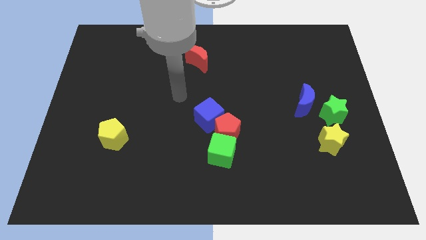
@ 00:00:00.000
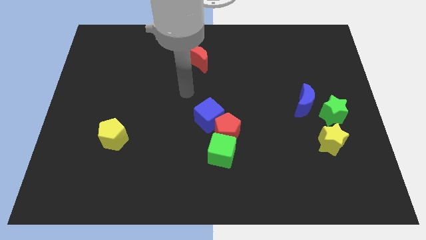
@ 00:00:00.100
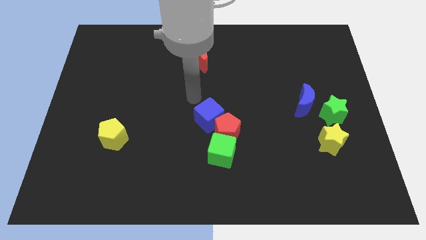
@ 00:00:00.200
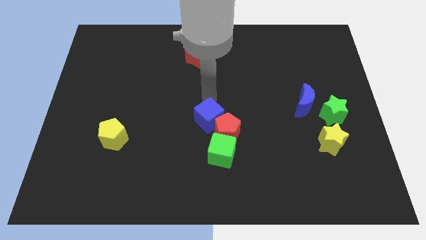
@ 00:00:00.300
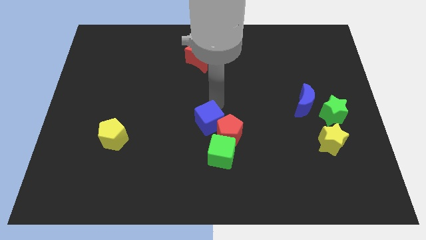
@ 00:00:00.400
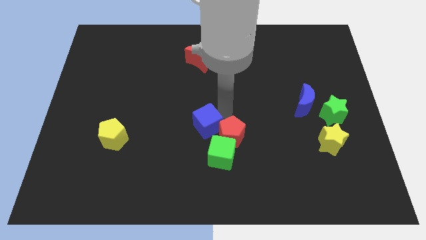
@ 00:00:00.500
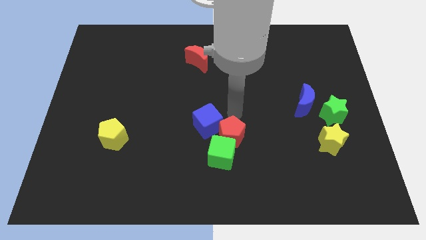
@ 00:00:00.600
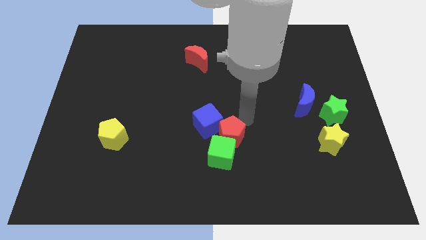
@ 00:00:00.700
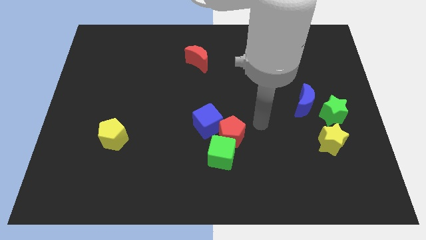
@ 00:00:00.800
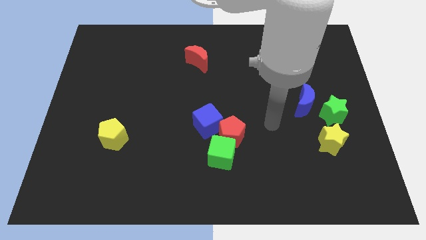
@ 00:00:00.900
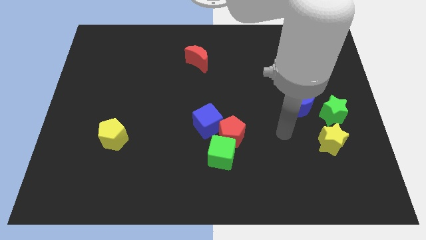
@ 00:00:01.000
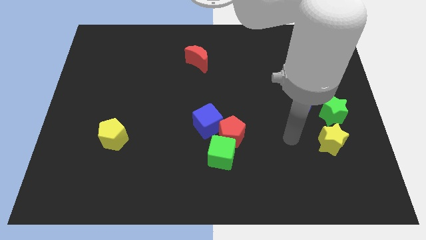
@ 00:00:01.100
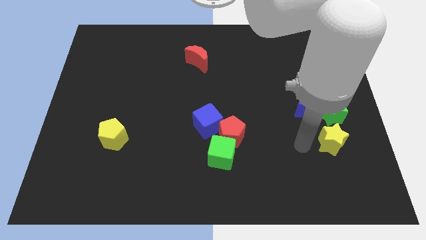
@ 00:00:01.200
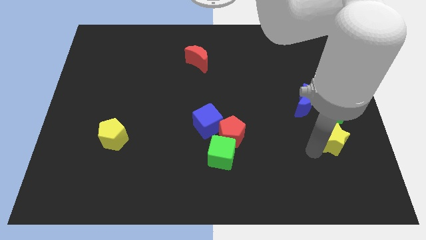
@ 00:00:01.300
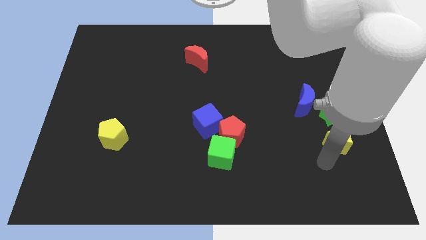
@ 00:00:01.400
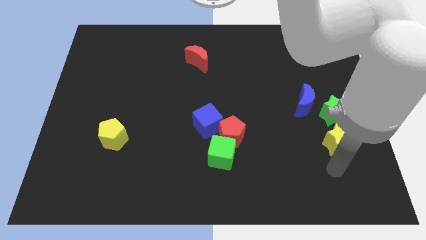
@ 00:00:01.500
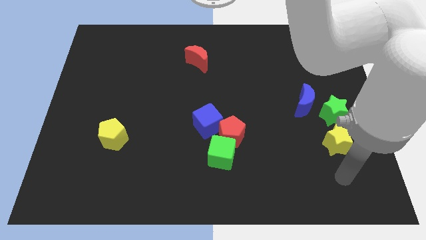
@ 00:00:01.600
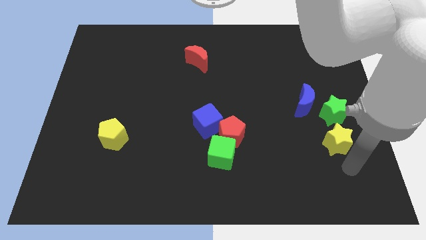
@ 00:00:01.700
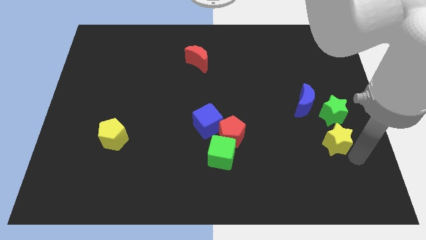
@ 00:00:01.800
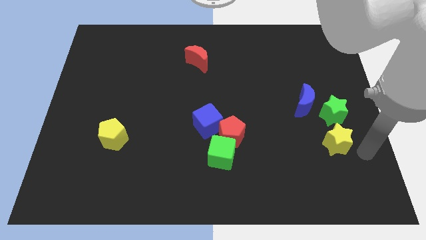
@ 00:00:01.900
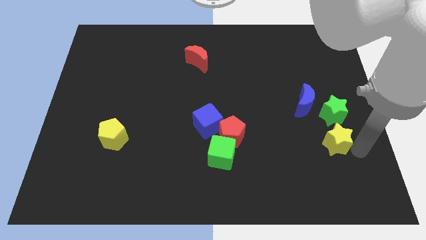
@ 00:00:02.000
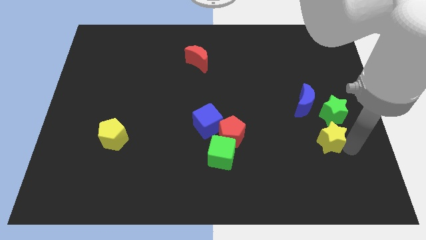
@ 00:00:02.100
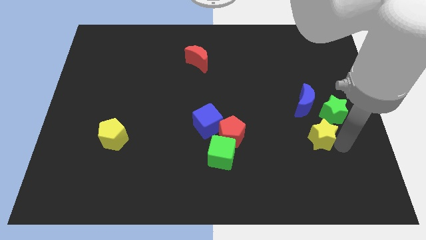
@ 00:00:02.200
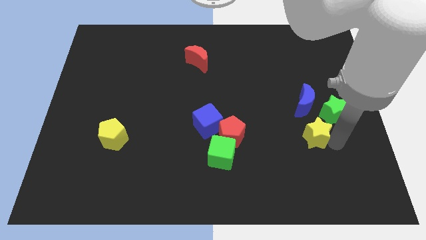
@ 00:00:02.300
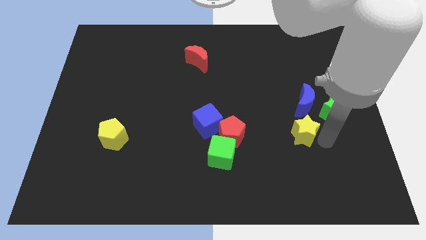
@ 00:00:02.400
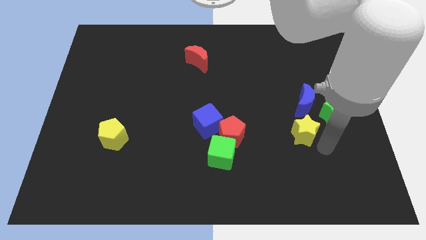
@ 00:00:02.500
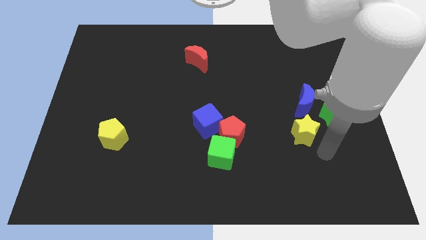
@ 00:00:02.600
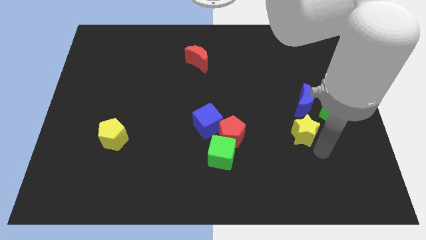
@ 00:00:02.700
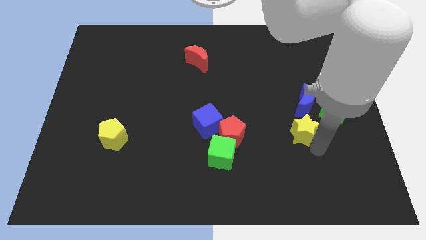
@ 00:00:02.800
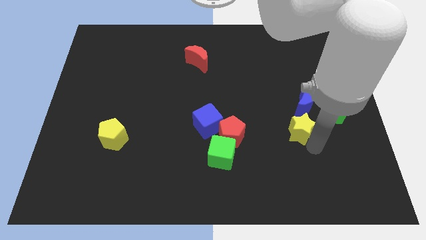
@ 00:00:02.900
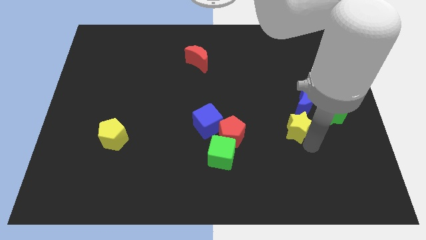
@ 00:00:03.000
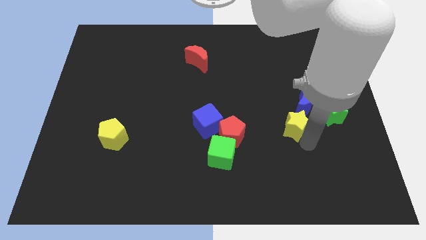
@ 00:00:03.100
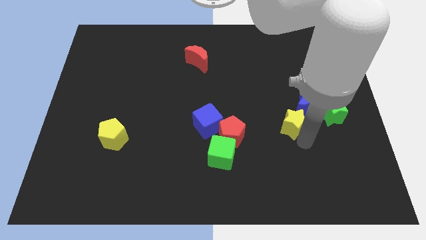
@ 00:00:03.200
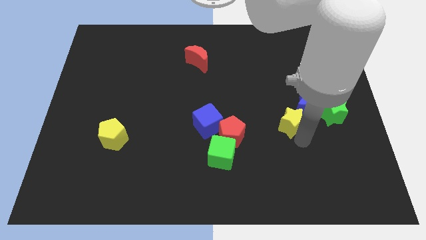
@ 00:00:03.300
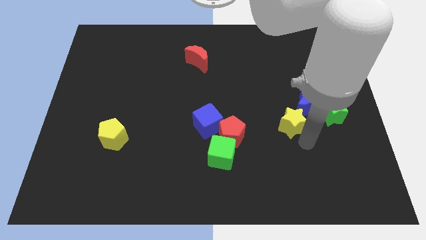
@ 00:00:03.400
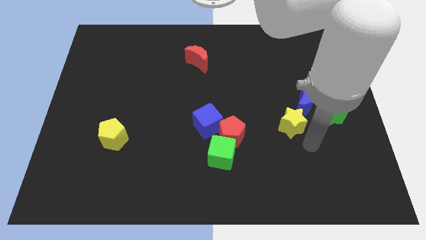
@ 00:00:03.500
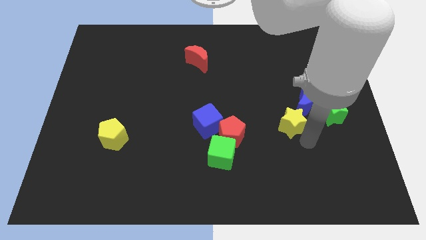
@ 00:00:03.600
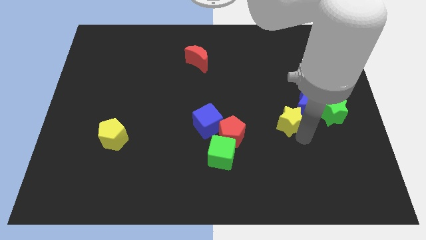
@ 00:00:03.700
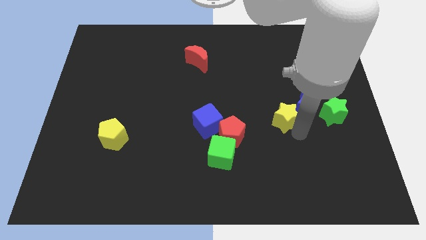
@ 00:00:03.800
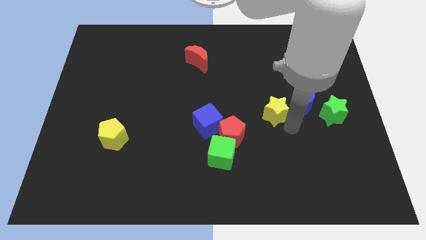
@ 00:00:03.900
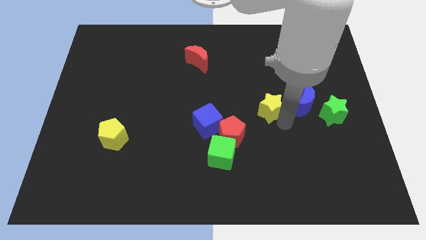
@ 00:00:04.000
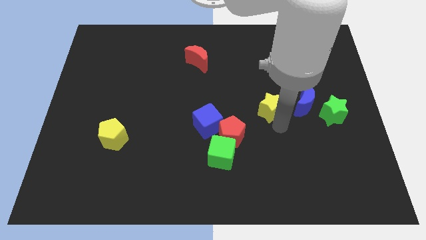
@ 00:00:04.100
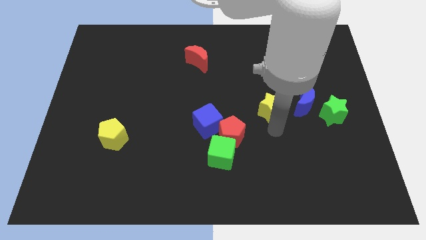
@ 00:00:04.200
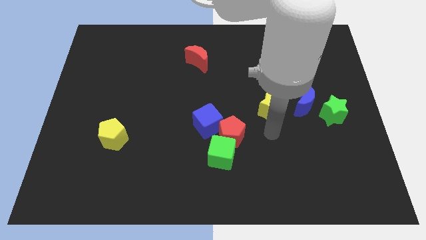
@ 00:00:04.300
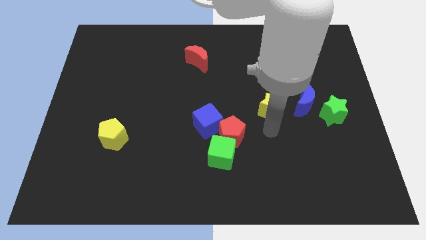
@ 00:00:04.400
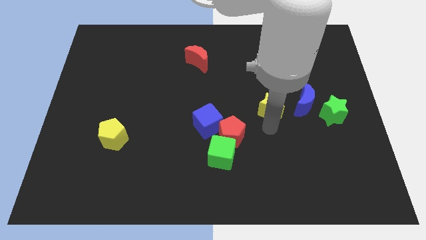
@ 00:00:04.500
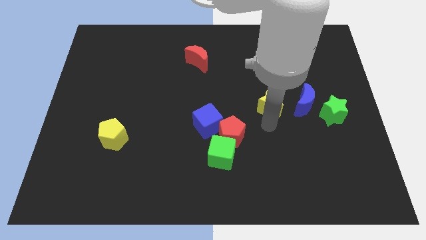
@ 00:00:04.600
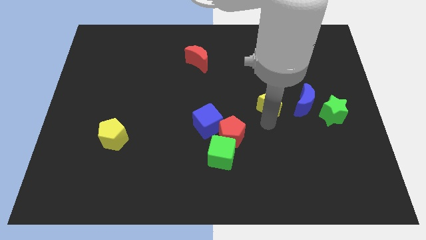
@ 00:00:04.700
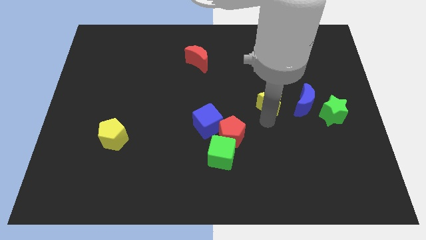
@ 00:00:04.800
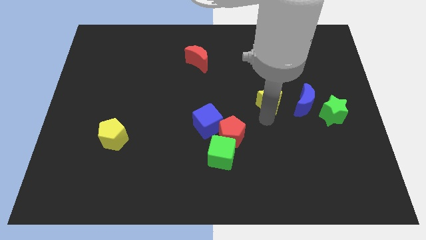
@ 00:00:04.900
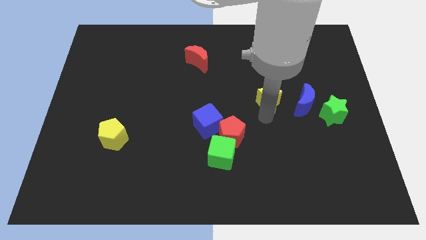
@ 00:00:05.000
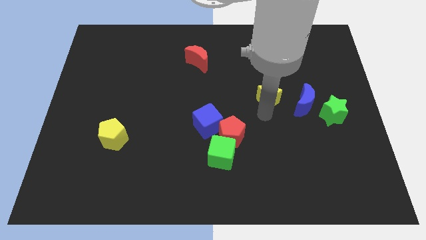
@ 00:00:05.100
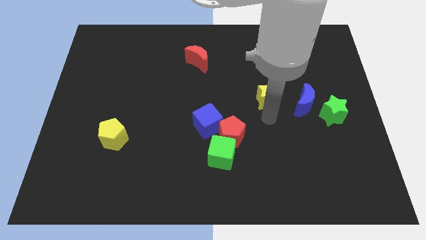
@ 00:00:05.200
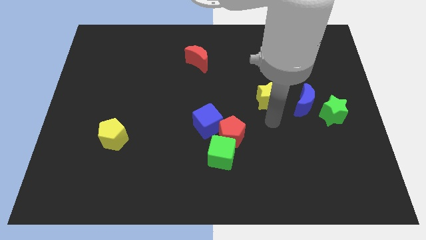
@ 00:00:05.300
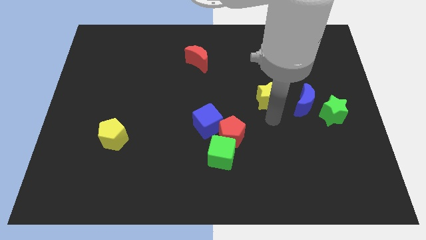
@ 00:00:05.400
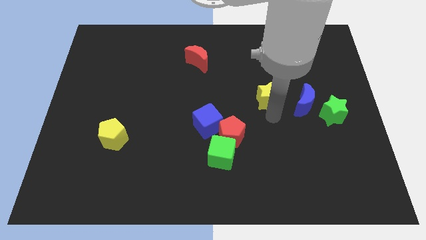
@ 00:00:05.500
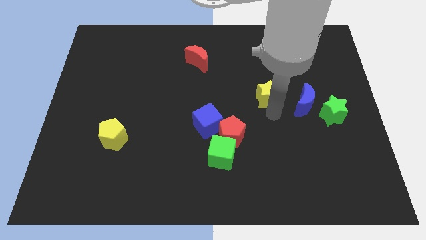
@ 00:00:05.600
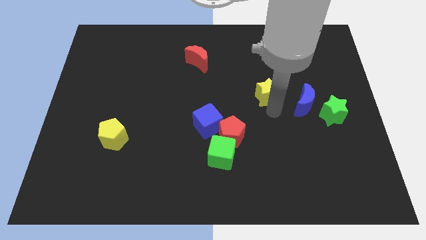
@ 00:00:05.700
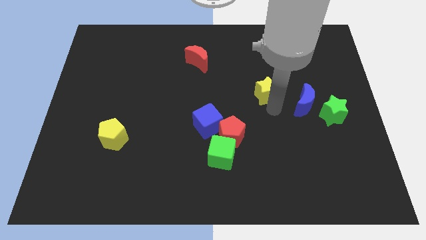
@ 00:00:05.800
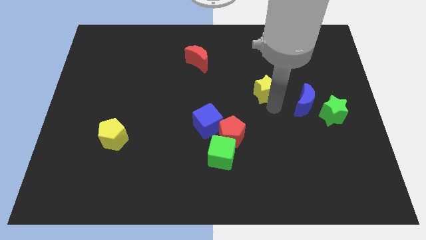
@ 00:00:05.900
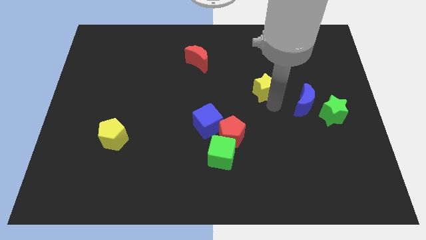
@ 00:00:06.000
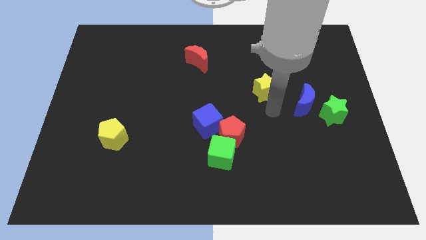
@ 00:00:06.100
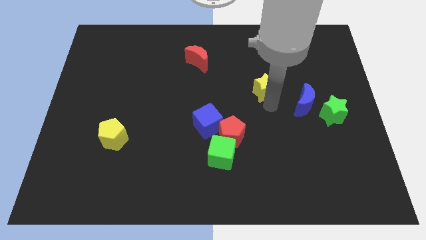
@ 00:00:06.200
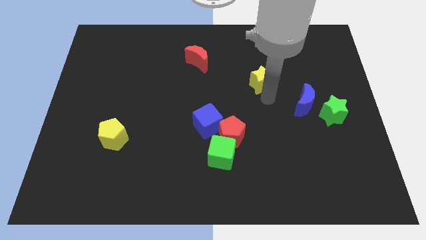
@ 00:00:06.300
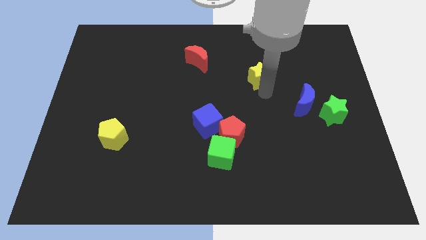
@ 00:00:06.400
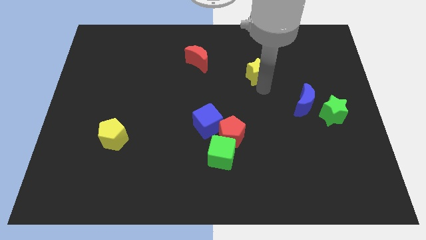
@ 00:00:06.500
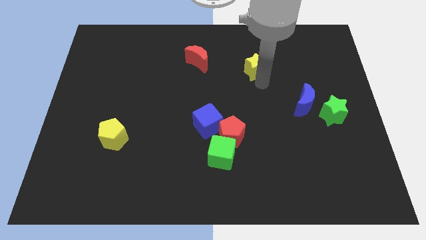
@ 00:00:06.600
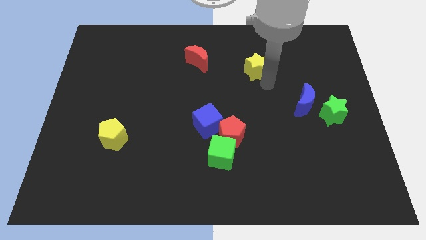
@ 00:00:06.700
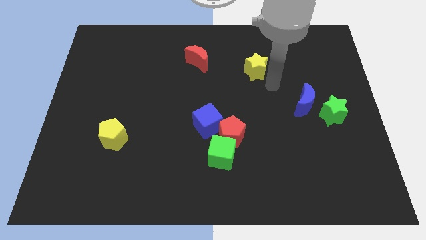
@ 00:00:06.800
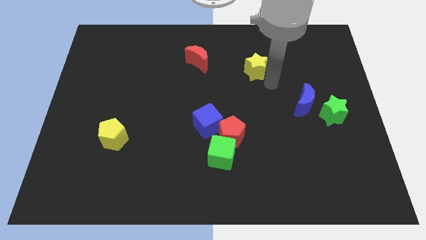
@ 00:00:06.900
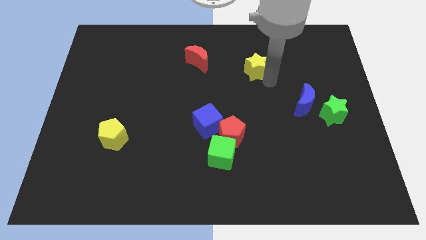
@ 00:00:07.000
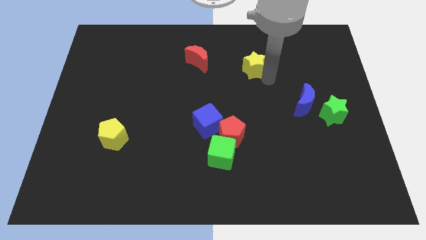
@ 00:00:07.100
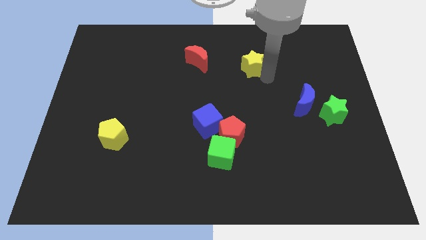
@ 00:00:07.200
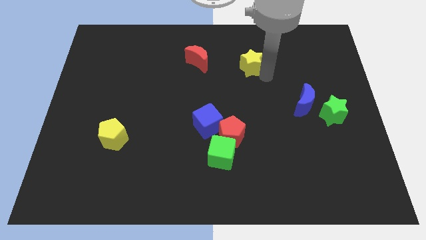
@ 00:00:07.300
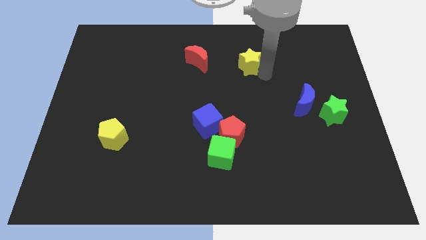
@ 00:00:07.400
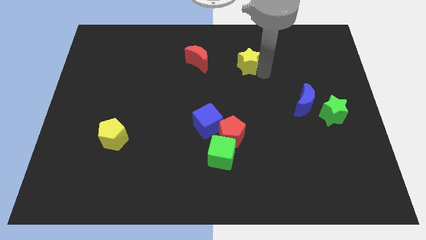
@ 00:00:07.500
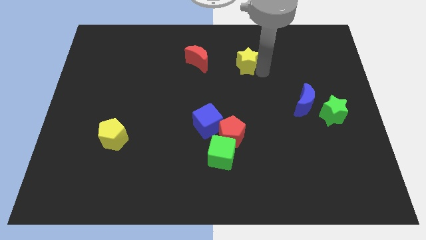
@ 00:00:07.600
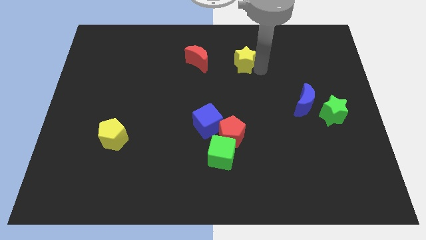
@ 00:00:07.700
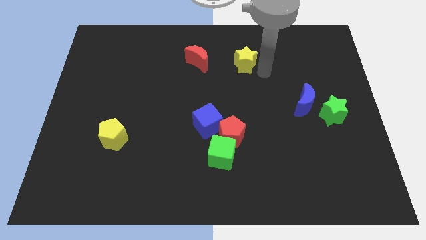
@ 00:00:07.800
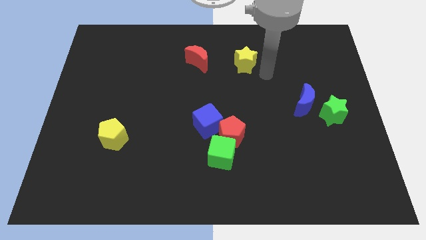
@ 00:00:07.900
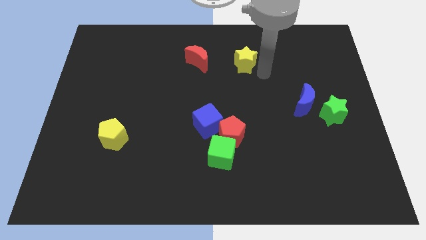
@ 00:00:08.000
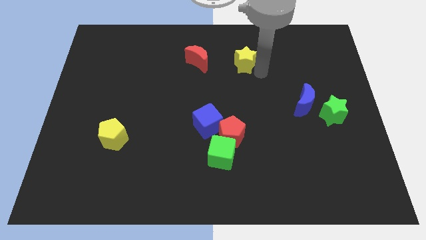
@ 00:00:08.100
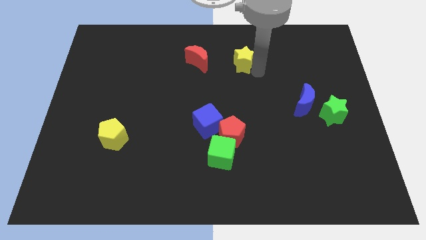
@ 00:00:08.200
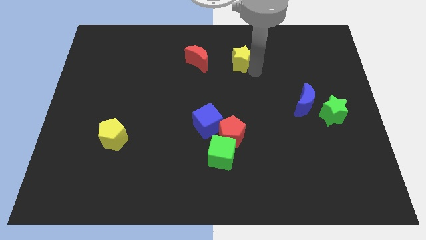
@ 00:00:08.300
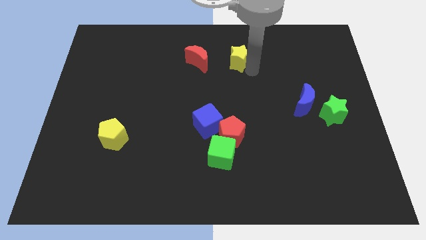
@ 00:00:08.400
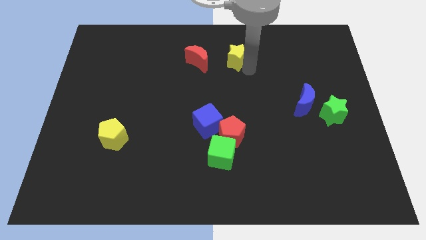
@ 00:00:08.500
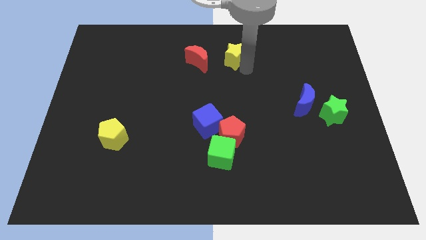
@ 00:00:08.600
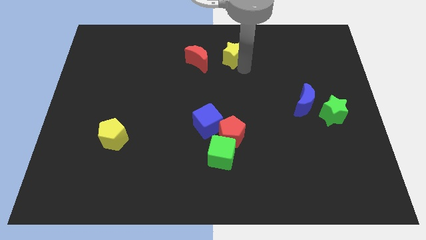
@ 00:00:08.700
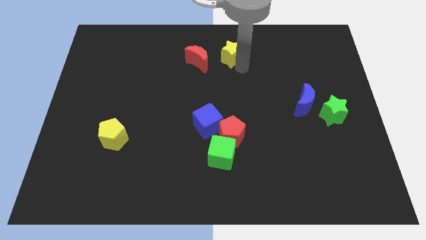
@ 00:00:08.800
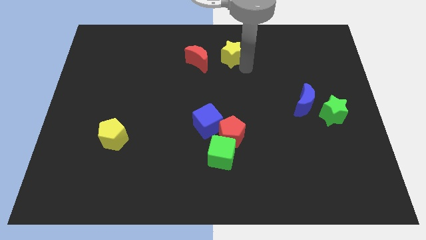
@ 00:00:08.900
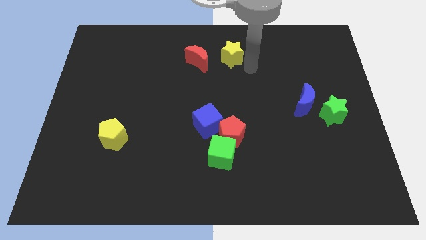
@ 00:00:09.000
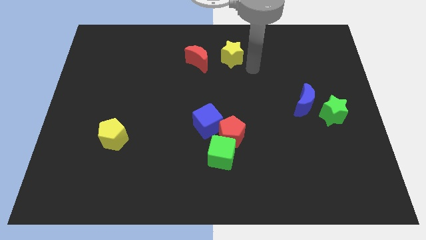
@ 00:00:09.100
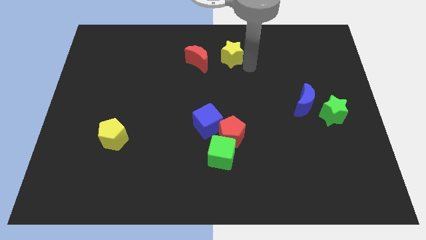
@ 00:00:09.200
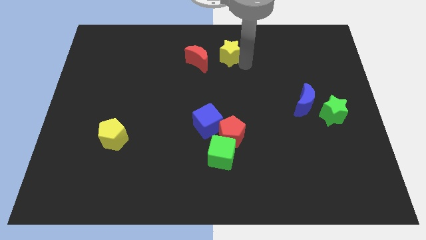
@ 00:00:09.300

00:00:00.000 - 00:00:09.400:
move the yellow star to the top
